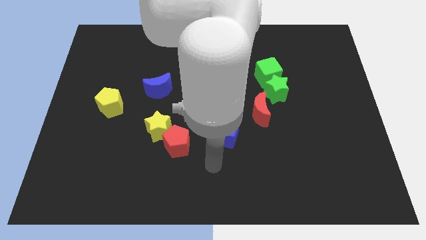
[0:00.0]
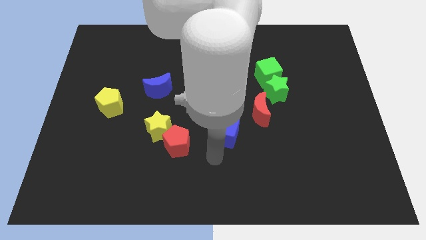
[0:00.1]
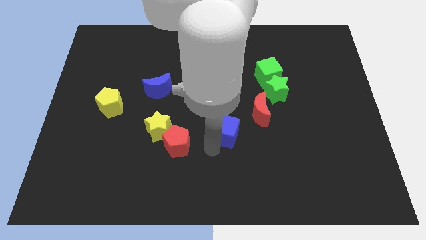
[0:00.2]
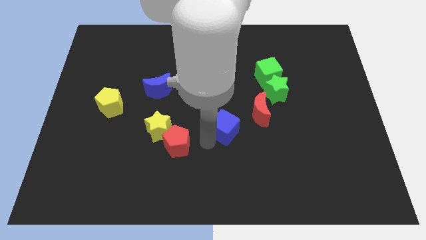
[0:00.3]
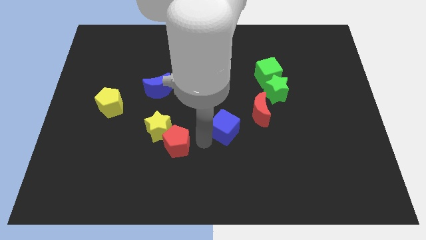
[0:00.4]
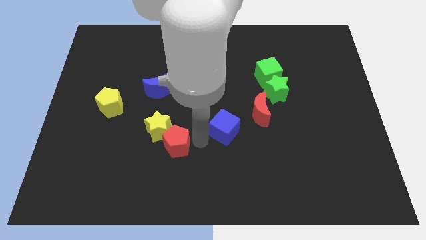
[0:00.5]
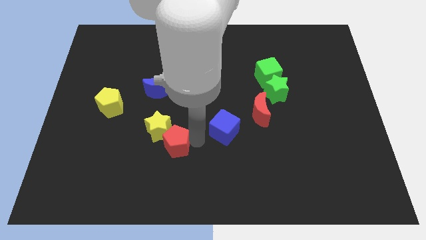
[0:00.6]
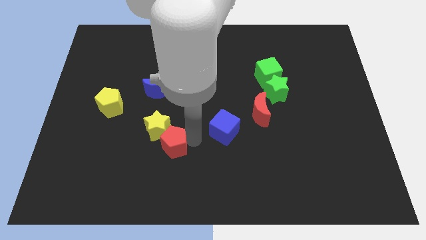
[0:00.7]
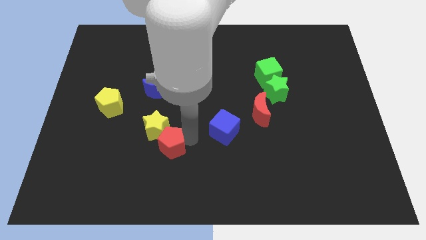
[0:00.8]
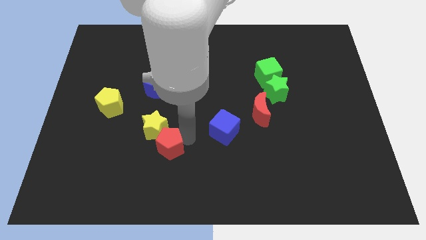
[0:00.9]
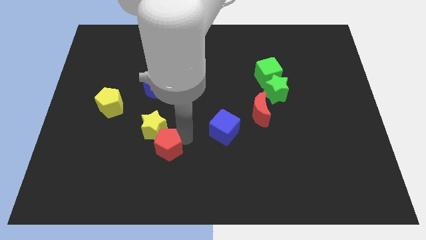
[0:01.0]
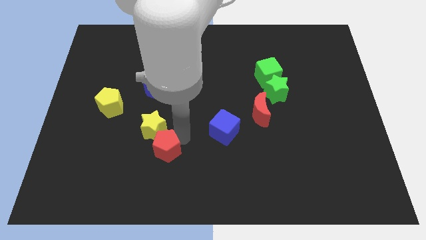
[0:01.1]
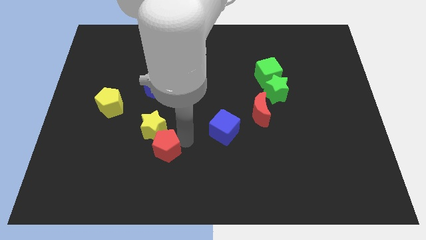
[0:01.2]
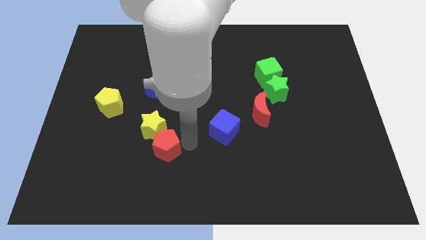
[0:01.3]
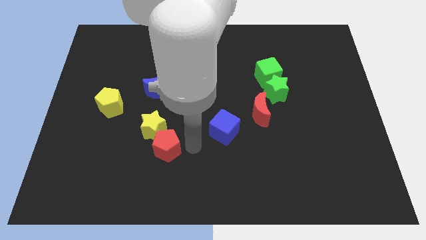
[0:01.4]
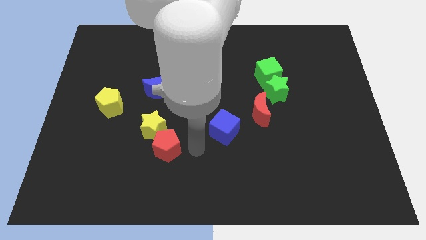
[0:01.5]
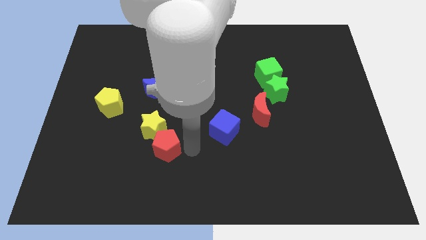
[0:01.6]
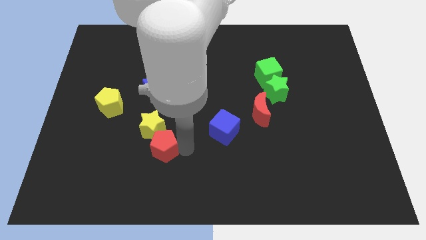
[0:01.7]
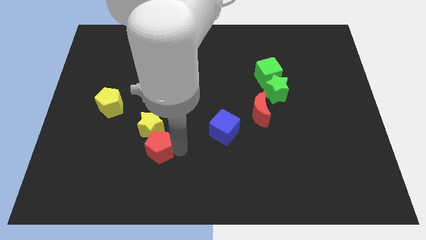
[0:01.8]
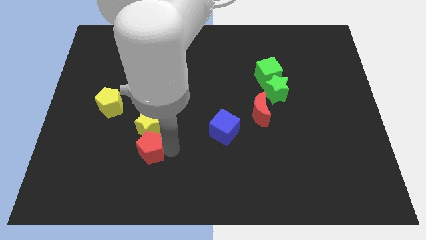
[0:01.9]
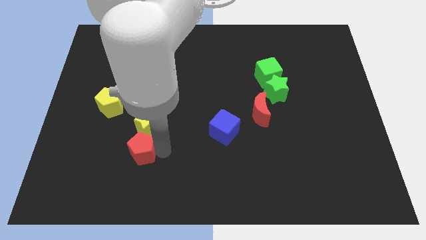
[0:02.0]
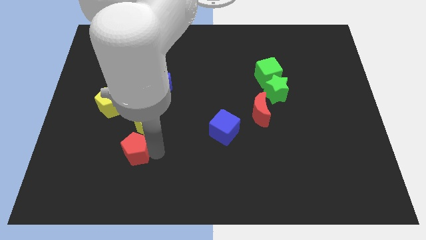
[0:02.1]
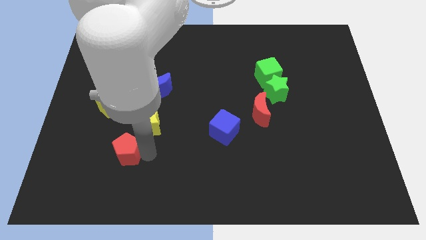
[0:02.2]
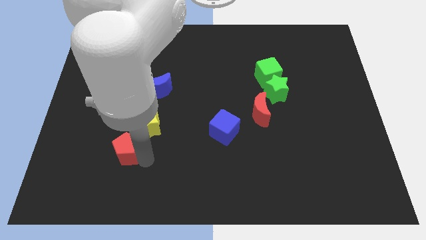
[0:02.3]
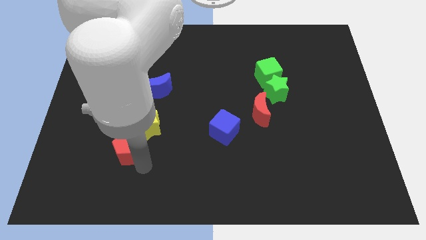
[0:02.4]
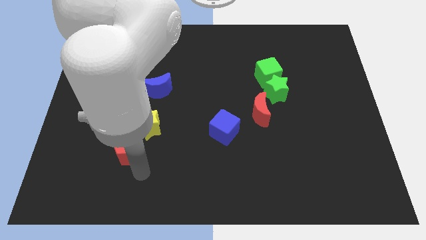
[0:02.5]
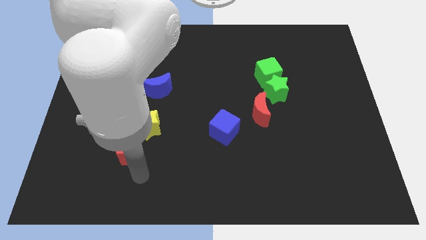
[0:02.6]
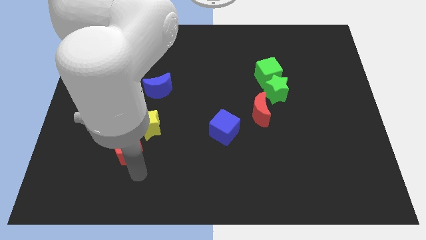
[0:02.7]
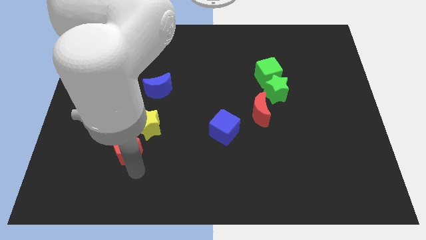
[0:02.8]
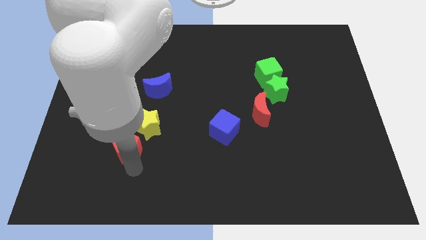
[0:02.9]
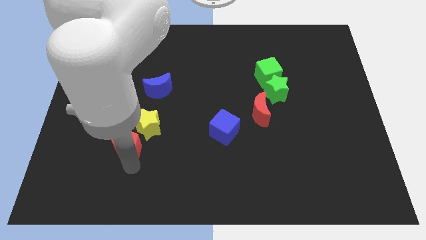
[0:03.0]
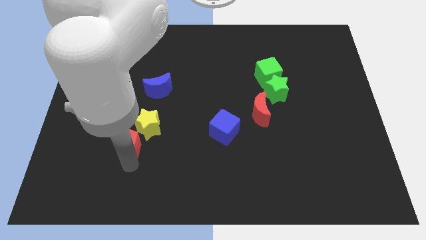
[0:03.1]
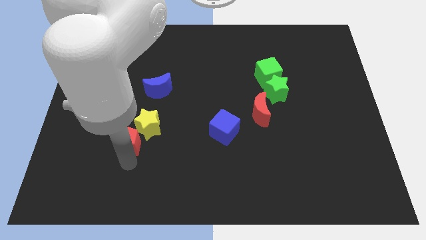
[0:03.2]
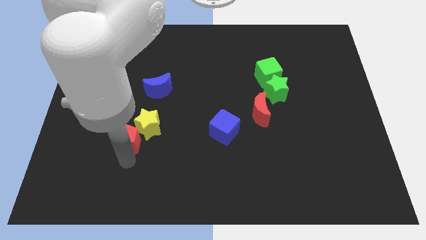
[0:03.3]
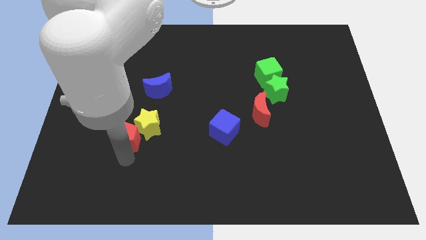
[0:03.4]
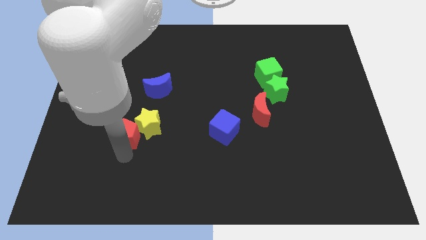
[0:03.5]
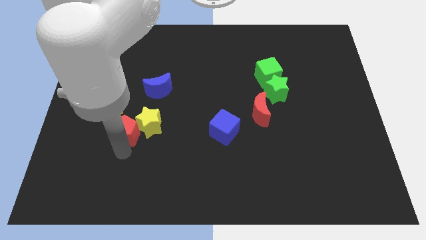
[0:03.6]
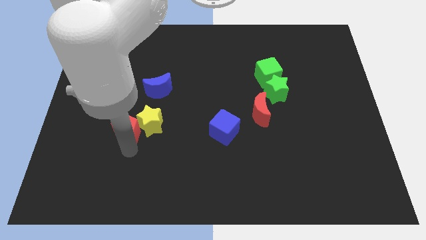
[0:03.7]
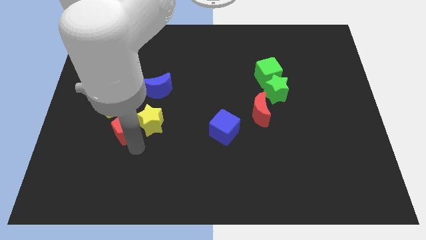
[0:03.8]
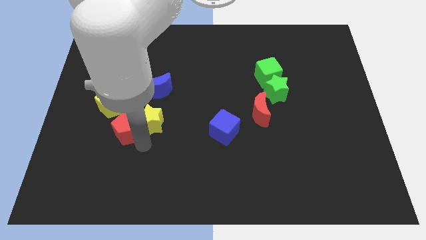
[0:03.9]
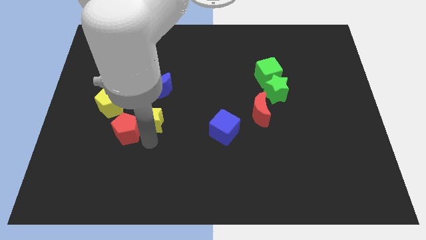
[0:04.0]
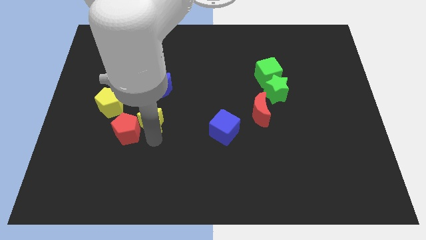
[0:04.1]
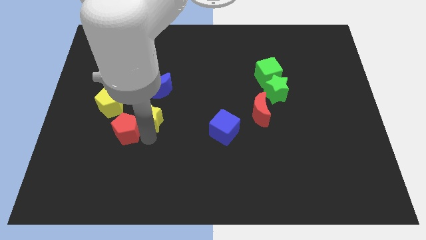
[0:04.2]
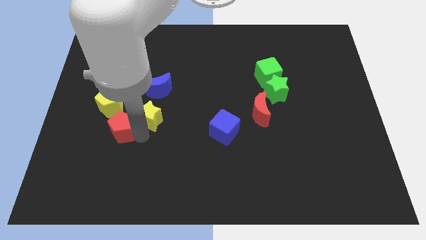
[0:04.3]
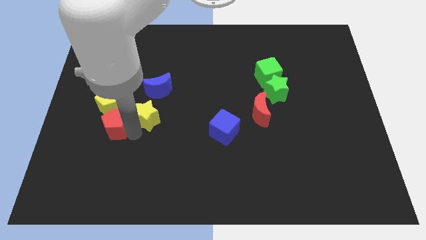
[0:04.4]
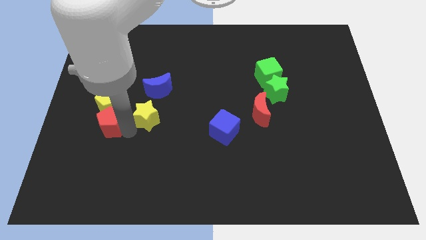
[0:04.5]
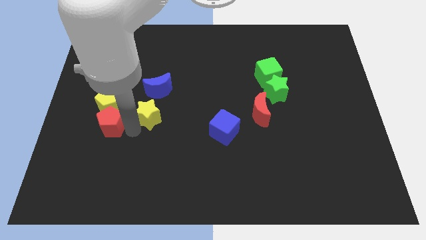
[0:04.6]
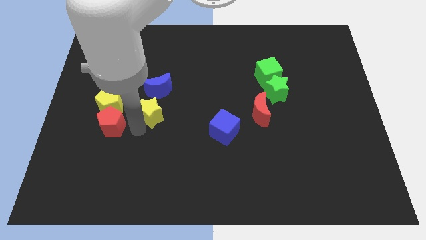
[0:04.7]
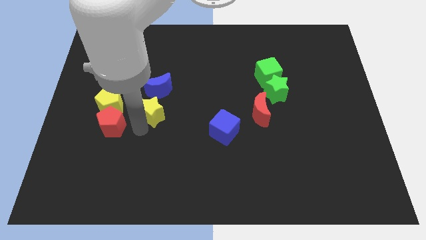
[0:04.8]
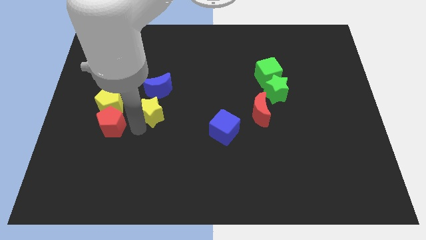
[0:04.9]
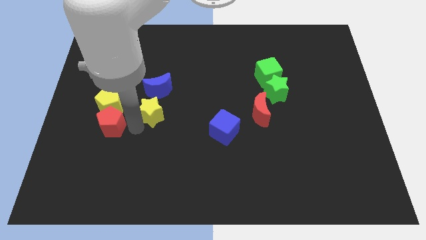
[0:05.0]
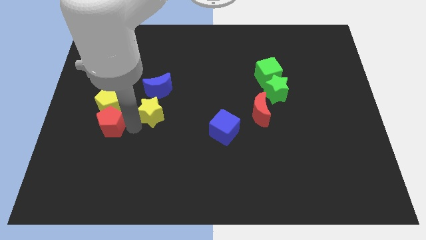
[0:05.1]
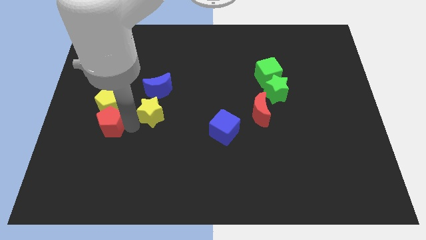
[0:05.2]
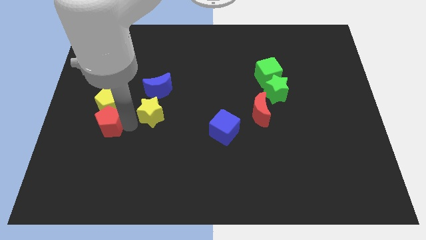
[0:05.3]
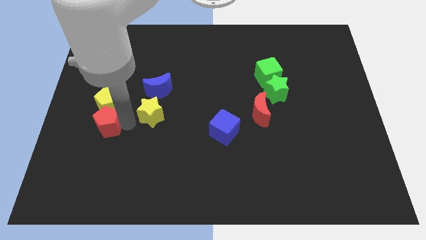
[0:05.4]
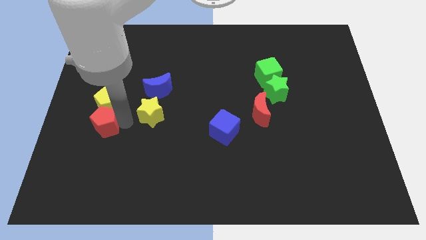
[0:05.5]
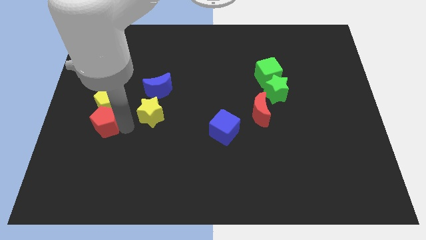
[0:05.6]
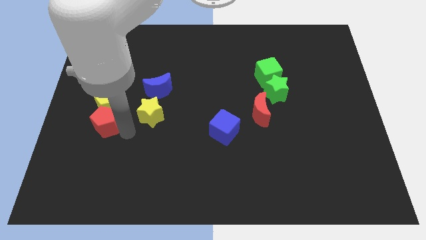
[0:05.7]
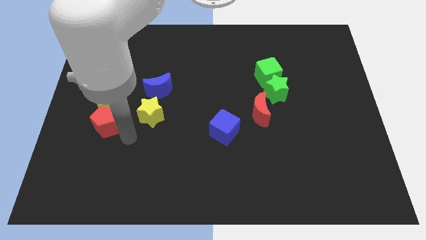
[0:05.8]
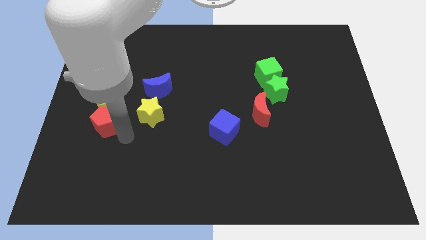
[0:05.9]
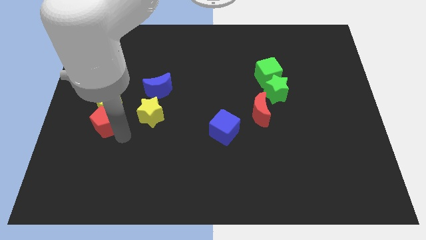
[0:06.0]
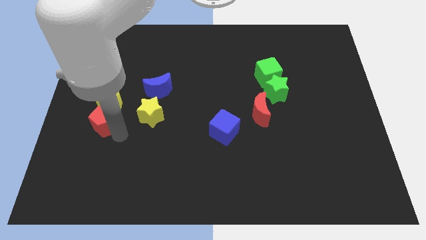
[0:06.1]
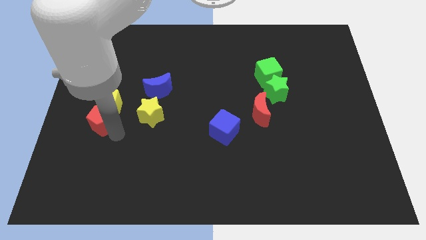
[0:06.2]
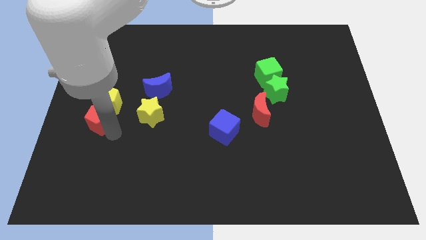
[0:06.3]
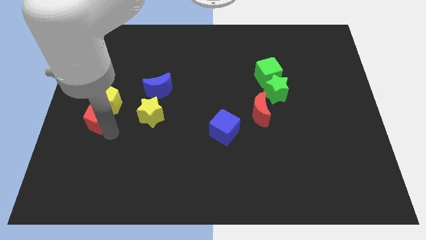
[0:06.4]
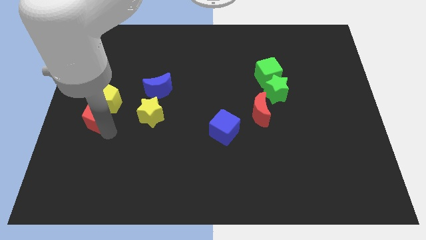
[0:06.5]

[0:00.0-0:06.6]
put the red pentagon to the left side

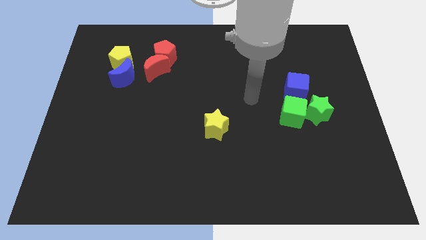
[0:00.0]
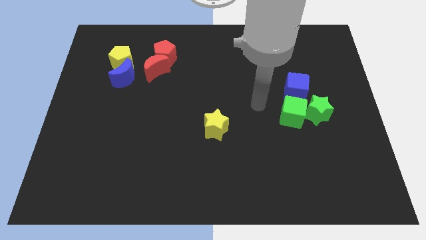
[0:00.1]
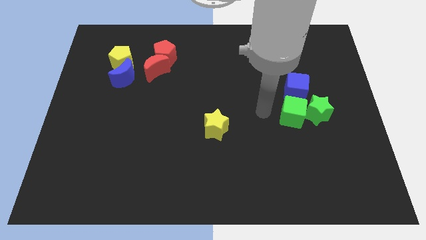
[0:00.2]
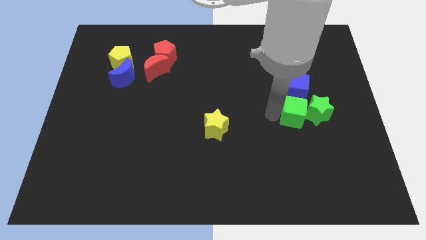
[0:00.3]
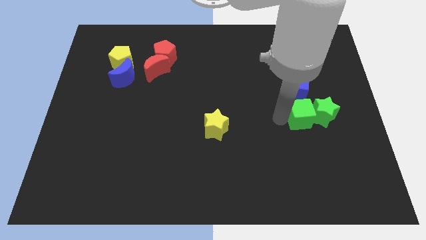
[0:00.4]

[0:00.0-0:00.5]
move the green star to the right side
